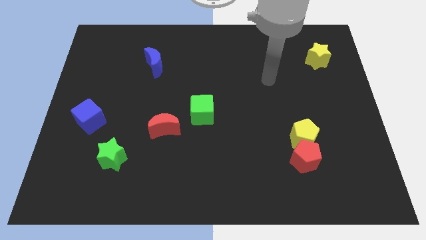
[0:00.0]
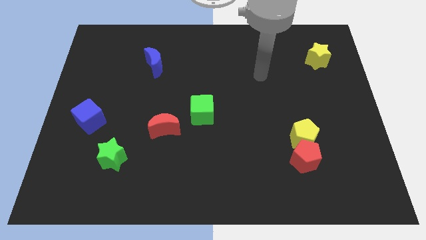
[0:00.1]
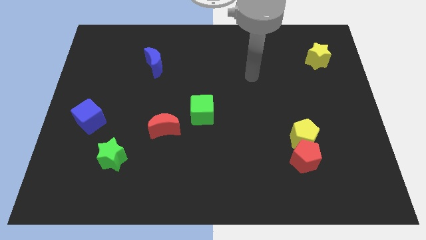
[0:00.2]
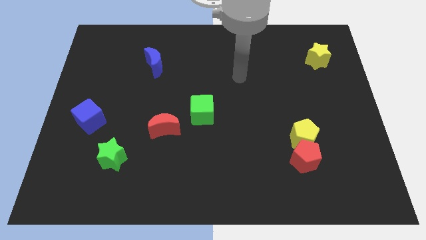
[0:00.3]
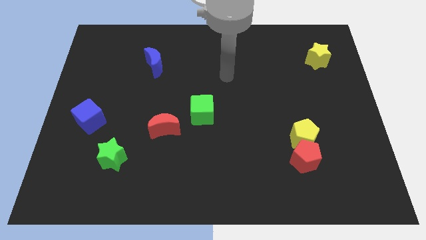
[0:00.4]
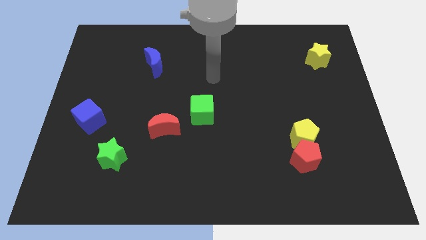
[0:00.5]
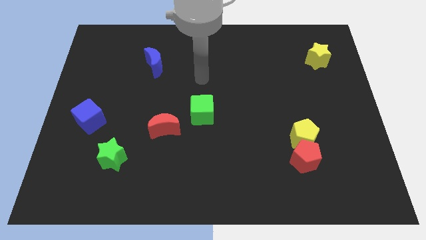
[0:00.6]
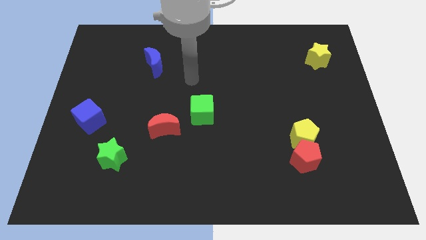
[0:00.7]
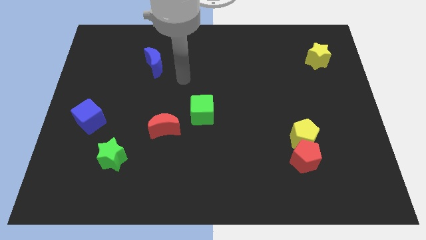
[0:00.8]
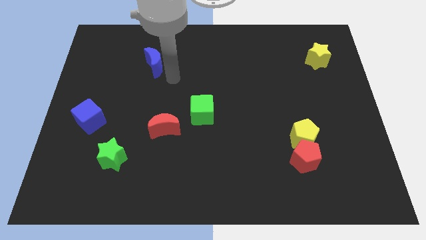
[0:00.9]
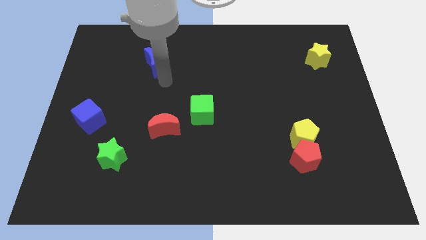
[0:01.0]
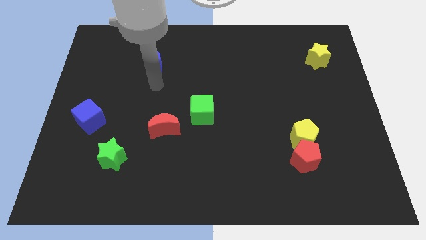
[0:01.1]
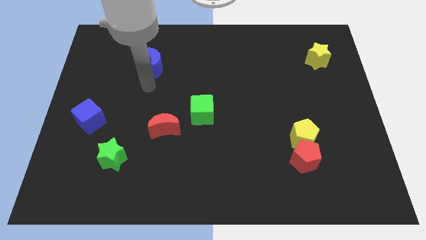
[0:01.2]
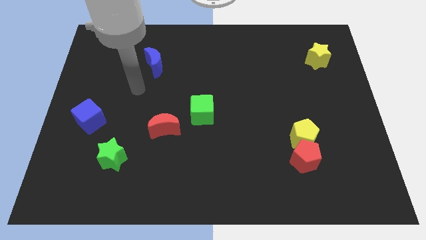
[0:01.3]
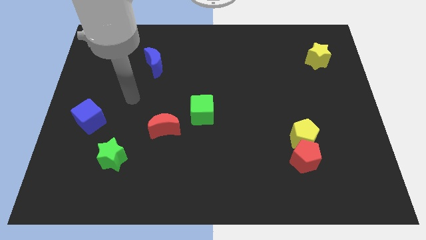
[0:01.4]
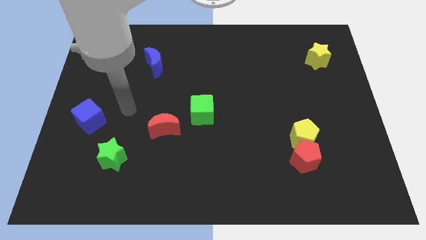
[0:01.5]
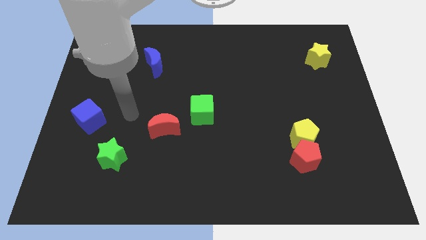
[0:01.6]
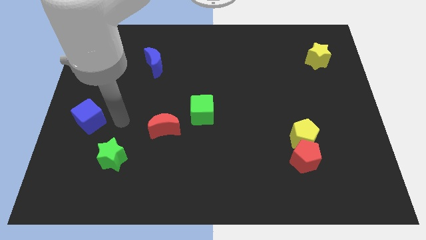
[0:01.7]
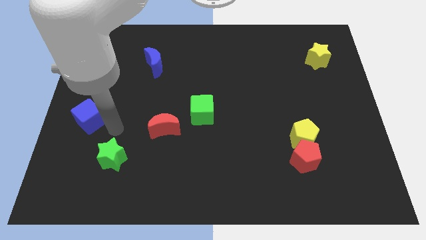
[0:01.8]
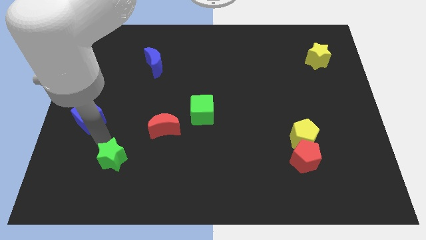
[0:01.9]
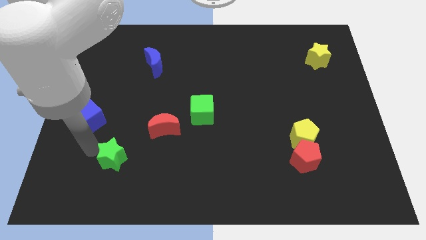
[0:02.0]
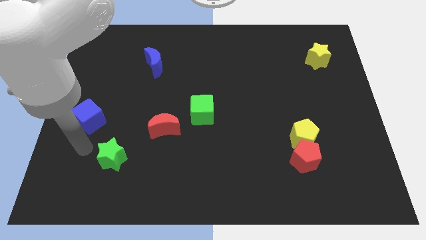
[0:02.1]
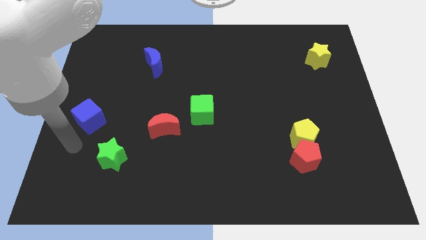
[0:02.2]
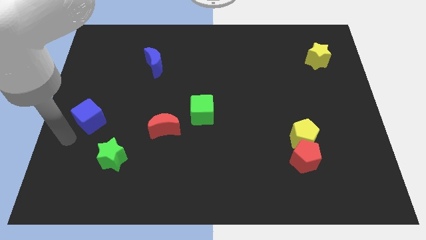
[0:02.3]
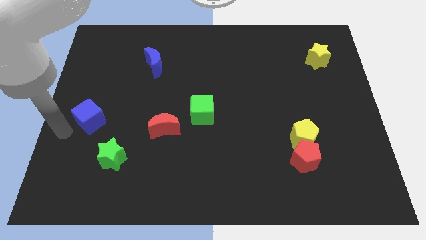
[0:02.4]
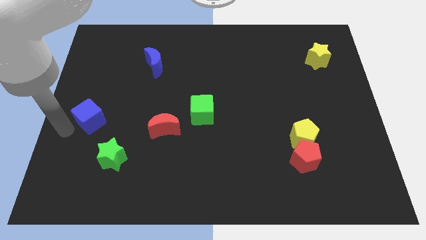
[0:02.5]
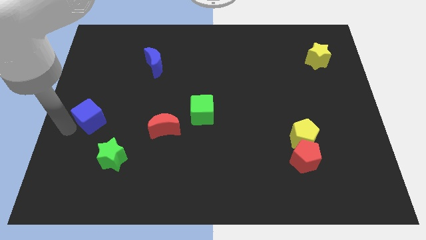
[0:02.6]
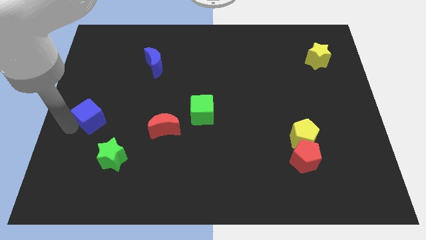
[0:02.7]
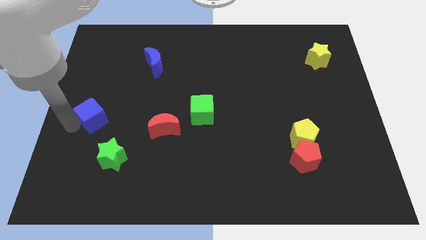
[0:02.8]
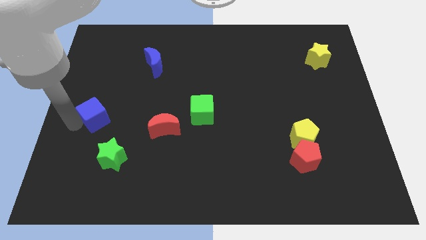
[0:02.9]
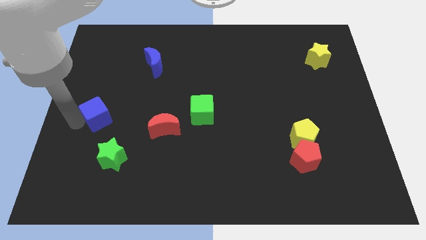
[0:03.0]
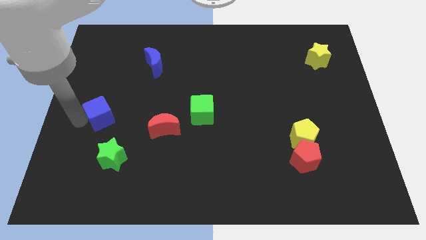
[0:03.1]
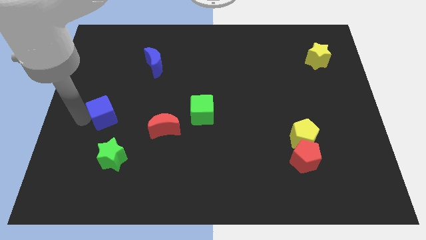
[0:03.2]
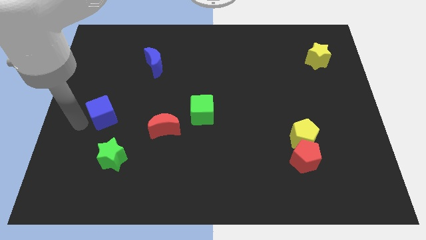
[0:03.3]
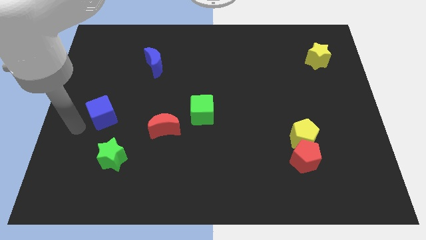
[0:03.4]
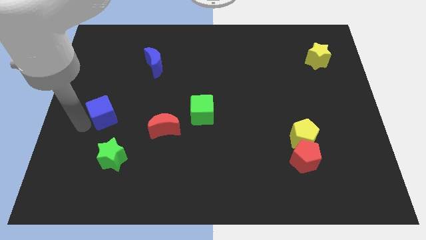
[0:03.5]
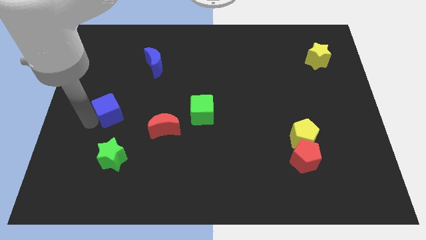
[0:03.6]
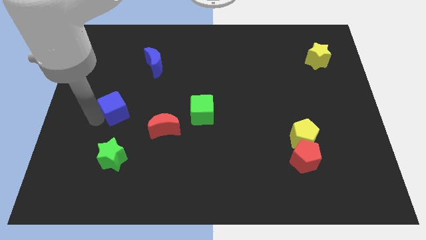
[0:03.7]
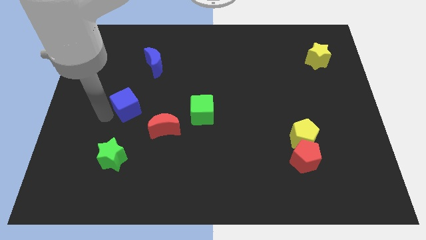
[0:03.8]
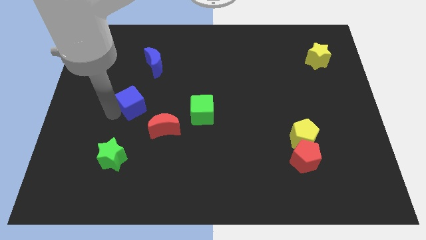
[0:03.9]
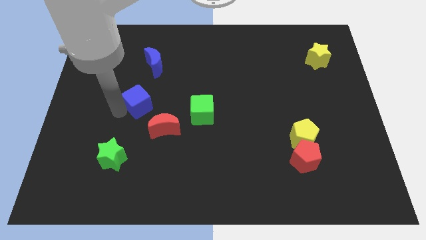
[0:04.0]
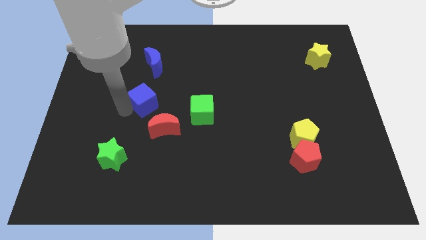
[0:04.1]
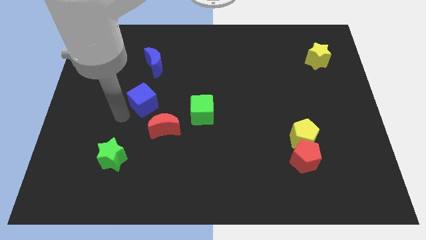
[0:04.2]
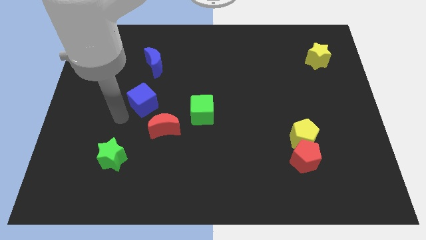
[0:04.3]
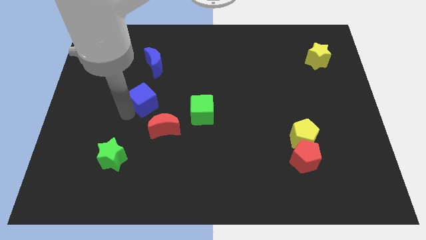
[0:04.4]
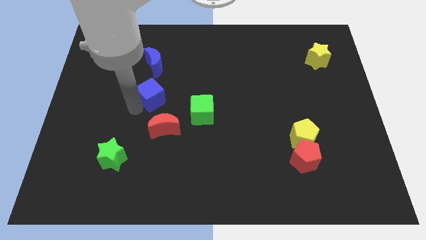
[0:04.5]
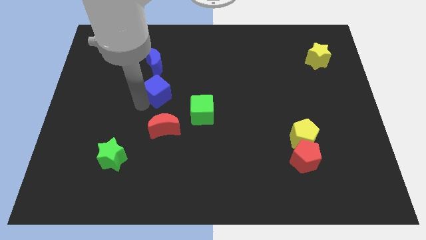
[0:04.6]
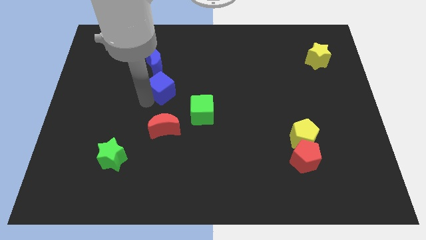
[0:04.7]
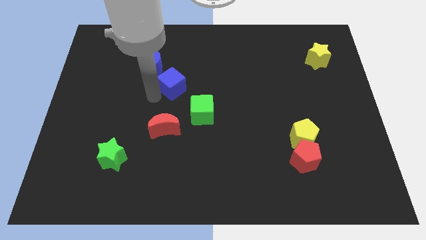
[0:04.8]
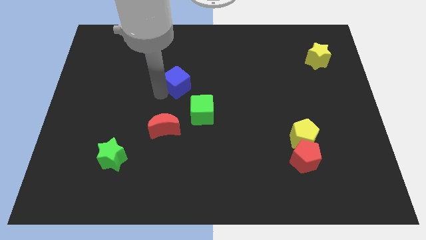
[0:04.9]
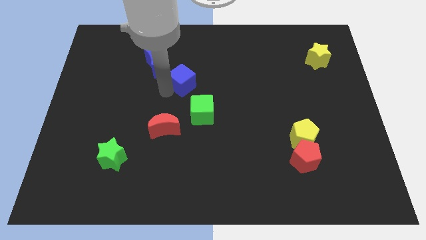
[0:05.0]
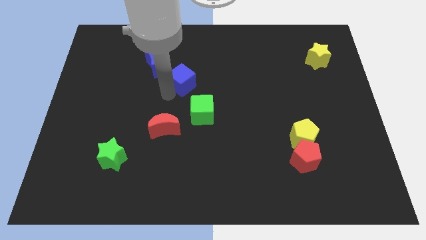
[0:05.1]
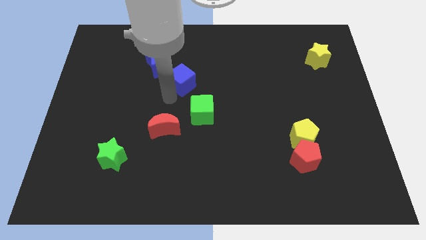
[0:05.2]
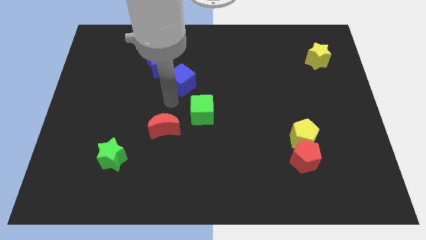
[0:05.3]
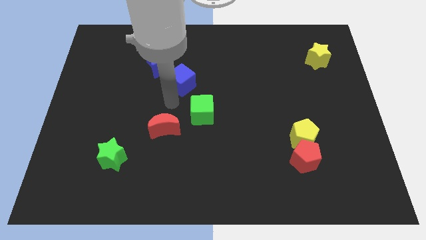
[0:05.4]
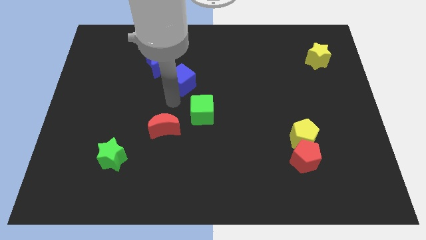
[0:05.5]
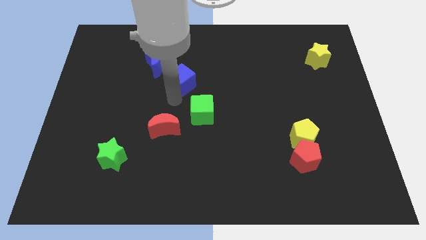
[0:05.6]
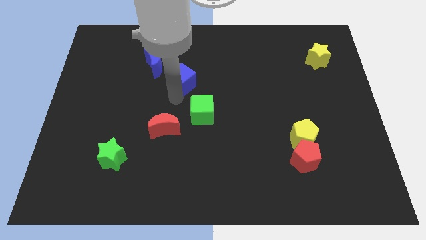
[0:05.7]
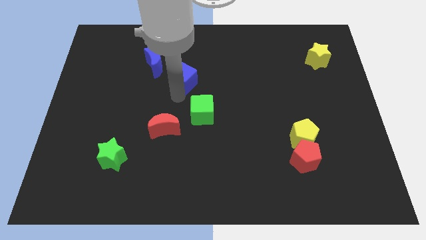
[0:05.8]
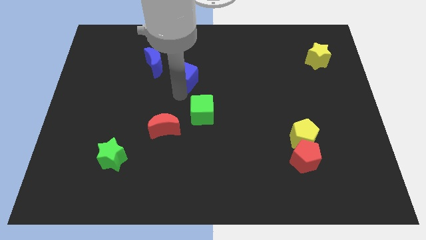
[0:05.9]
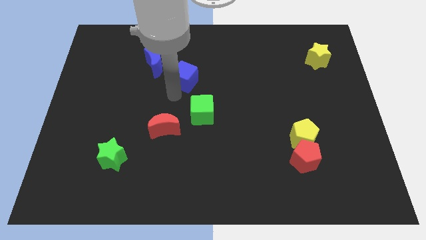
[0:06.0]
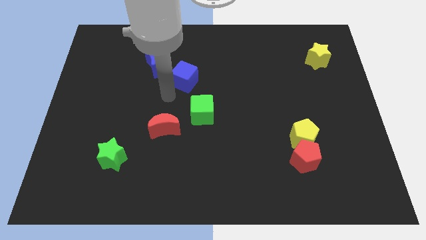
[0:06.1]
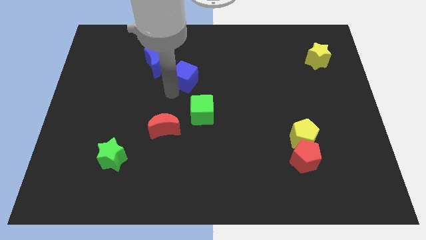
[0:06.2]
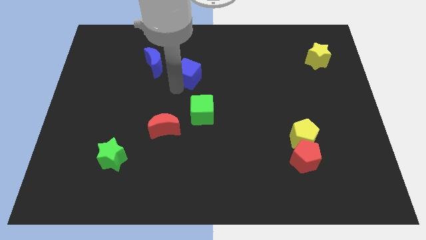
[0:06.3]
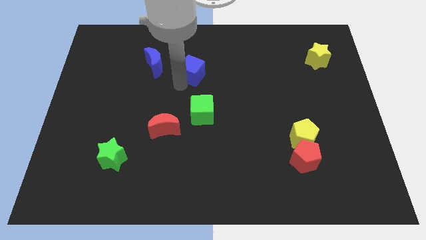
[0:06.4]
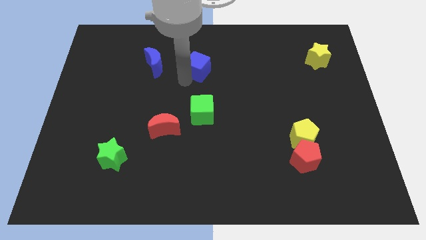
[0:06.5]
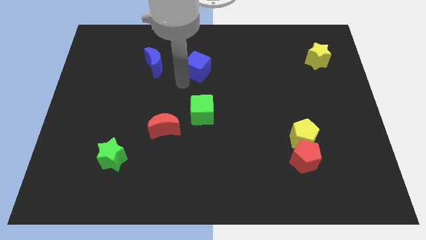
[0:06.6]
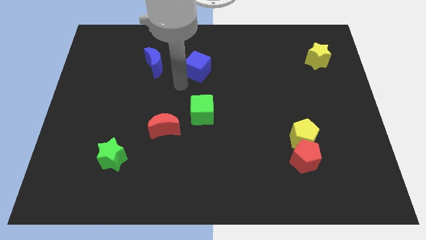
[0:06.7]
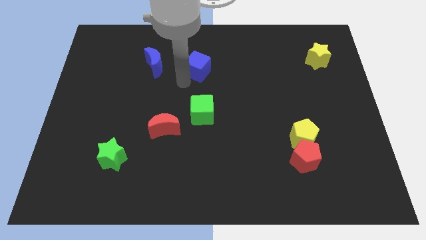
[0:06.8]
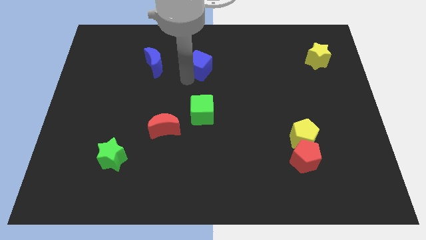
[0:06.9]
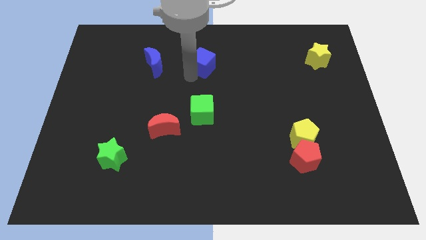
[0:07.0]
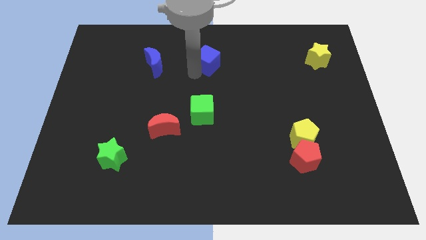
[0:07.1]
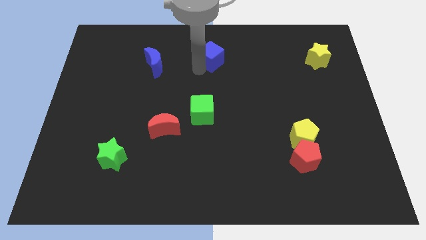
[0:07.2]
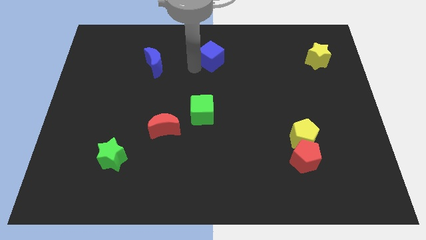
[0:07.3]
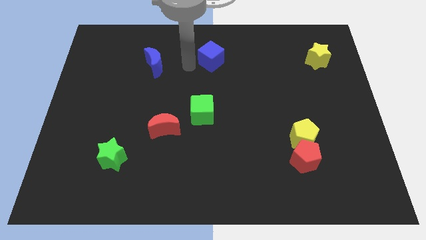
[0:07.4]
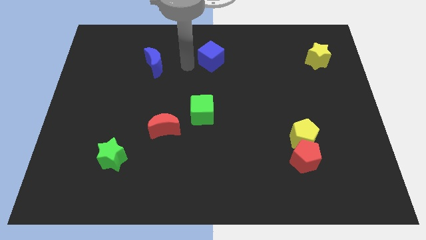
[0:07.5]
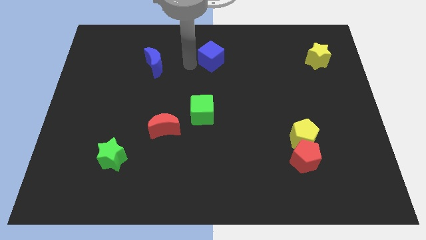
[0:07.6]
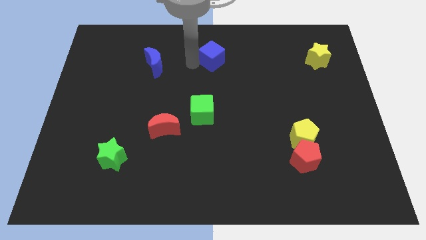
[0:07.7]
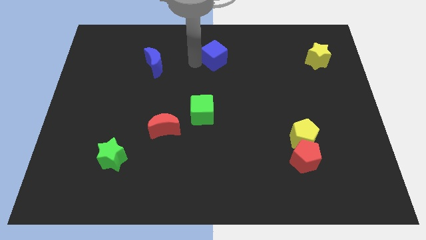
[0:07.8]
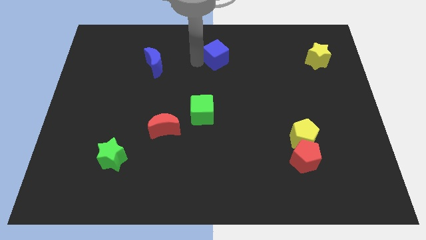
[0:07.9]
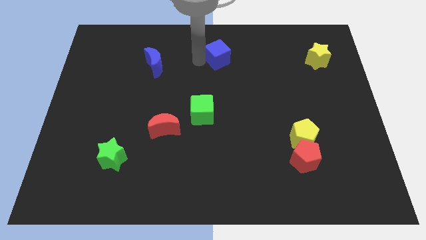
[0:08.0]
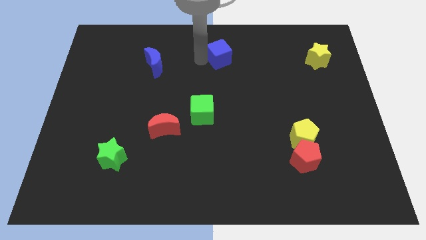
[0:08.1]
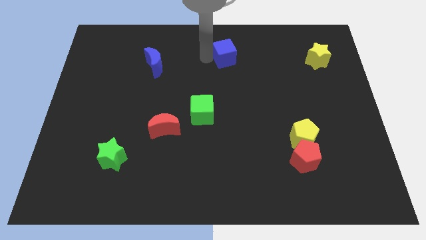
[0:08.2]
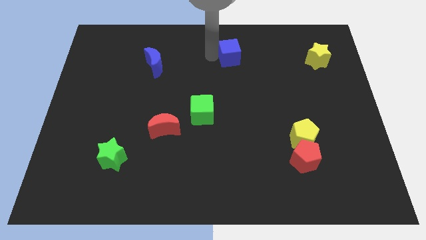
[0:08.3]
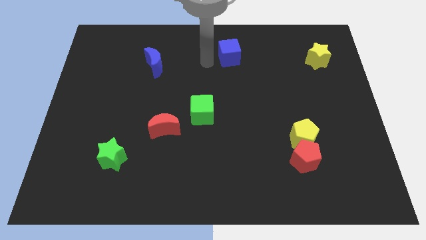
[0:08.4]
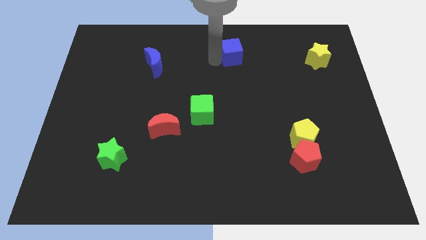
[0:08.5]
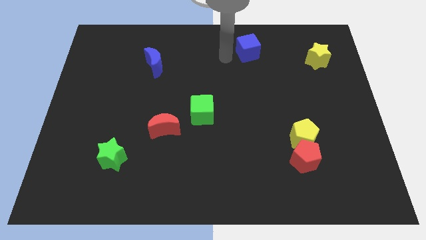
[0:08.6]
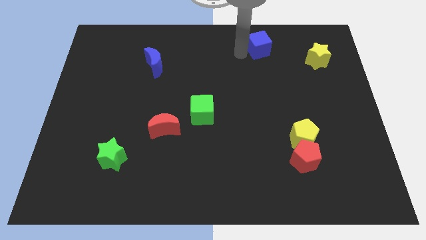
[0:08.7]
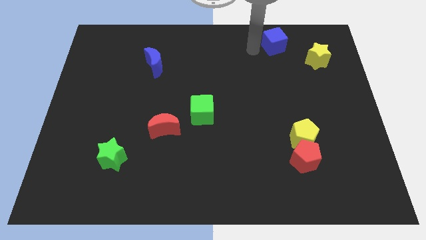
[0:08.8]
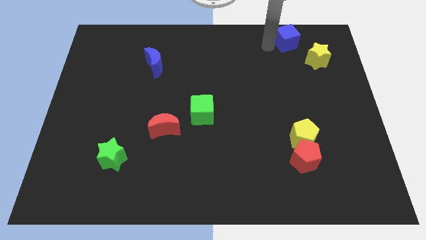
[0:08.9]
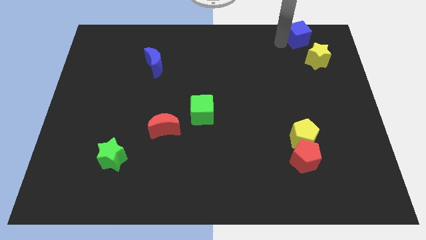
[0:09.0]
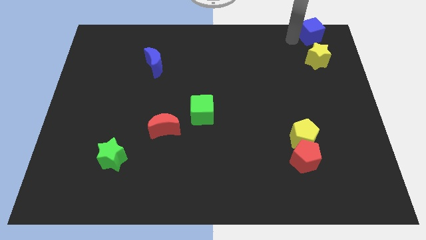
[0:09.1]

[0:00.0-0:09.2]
put the blue cube to the upper right corner
